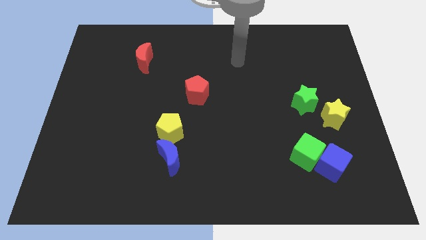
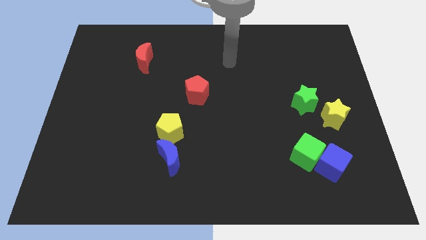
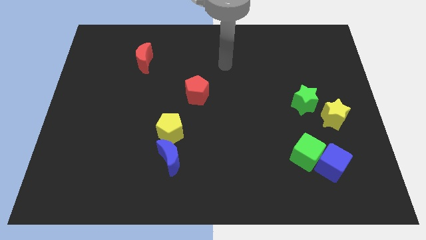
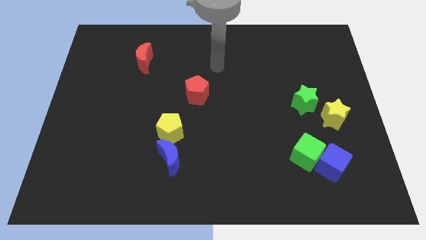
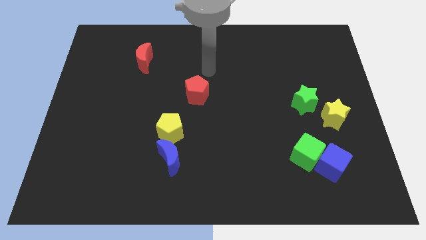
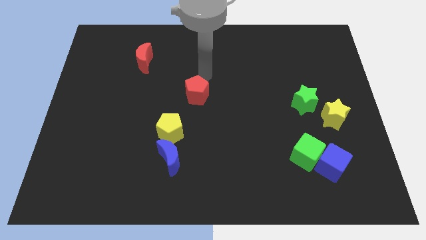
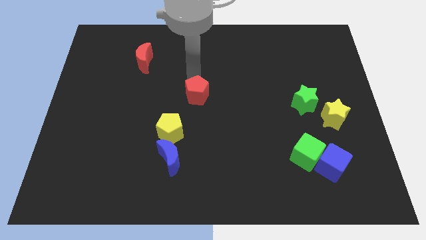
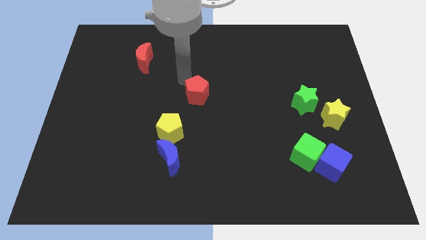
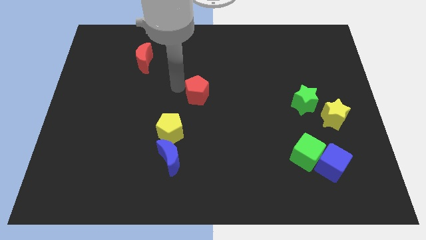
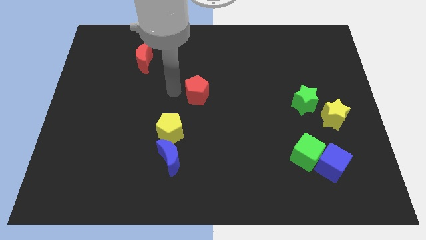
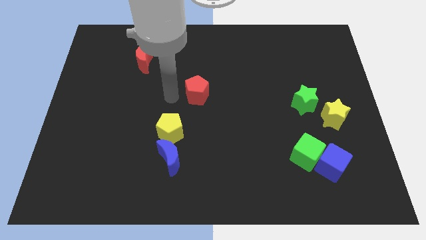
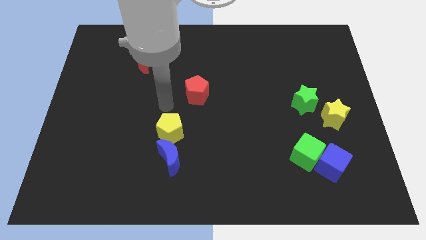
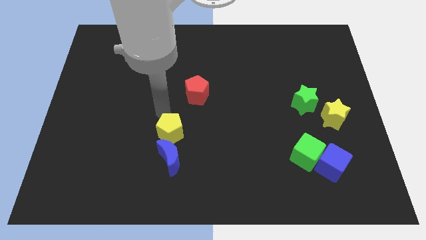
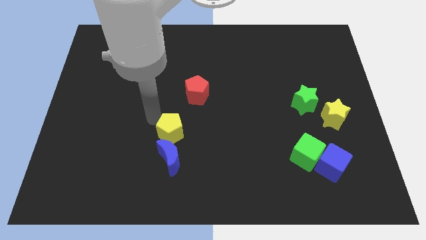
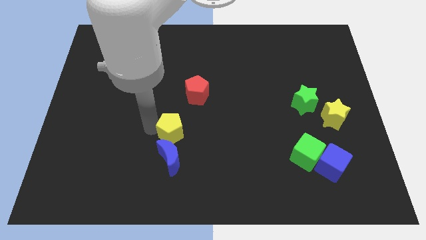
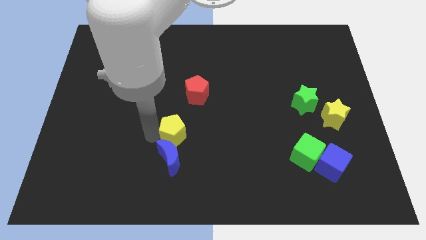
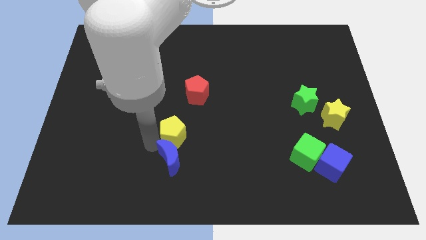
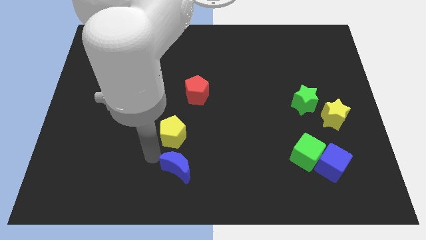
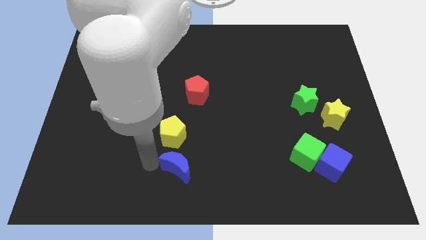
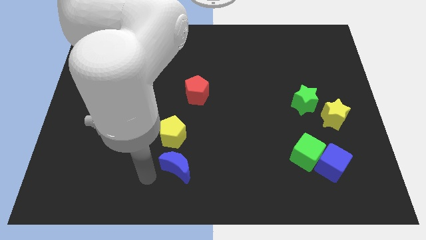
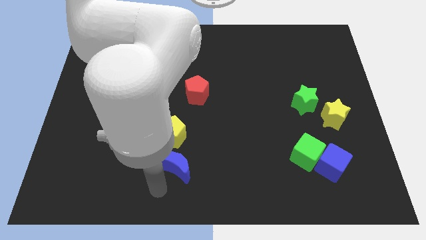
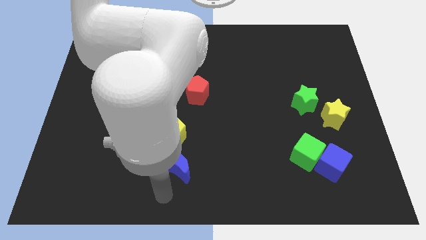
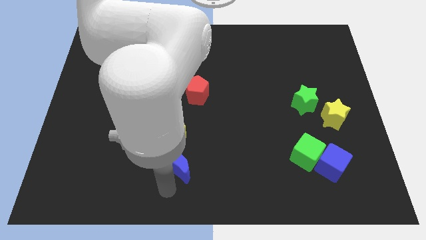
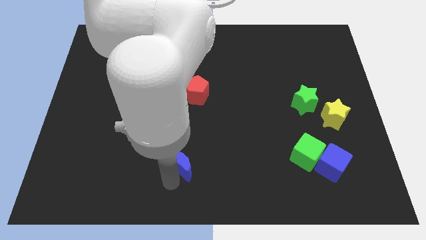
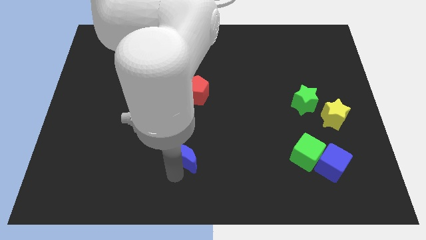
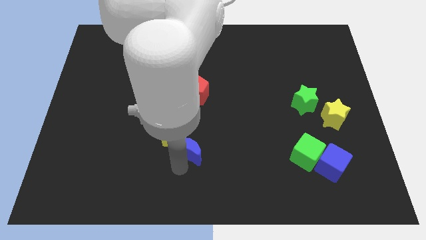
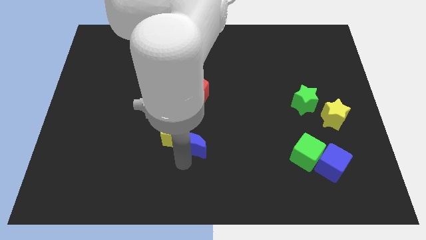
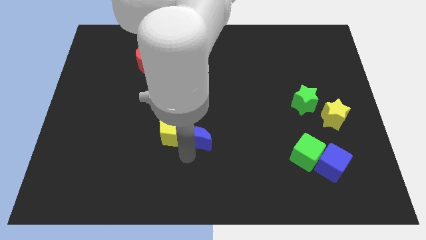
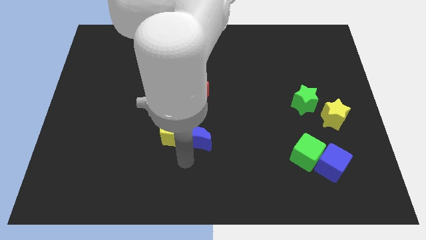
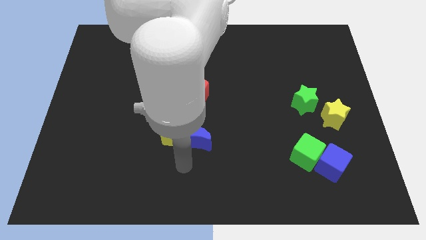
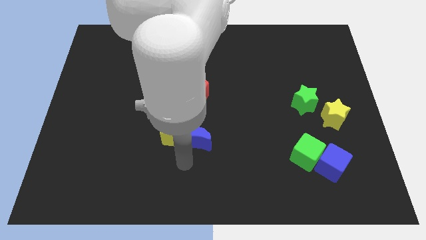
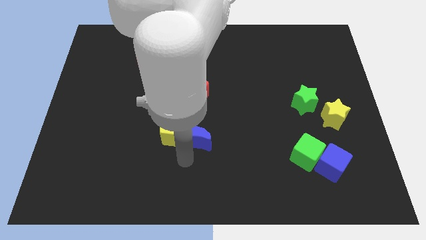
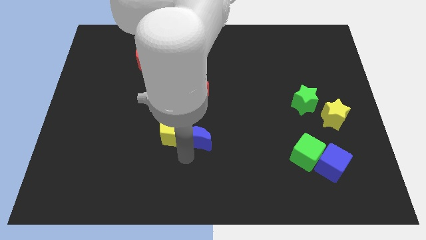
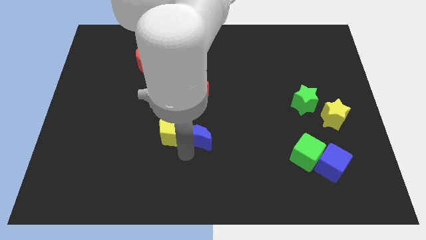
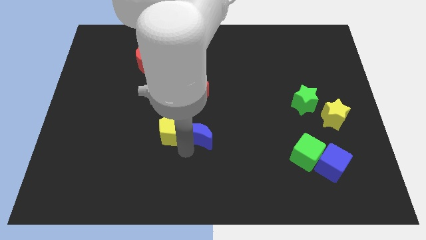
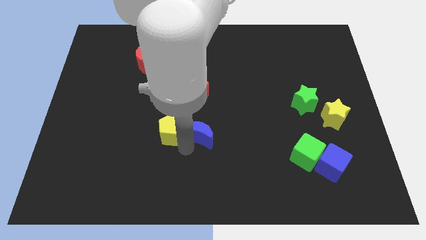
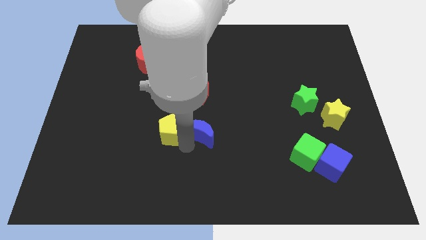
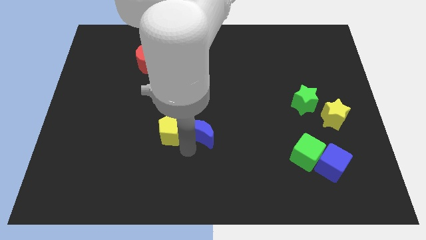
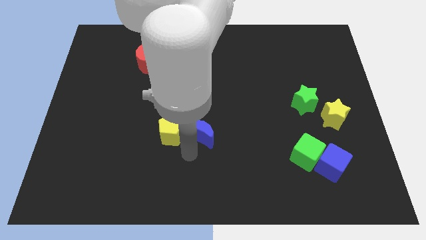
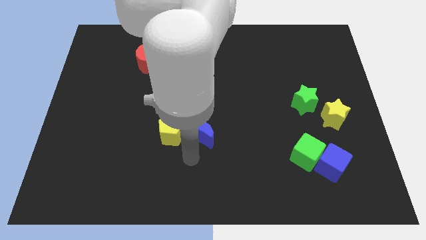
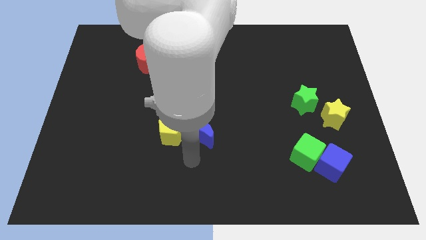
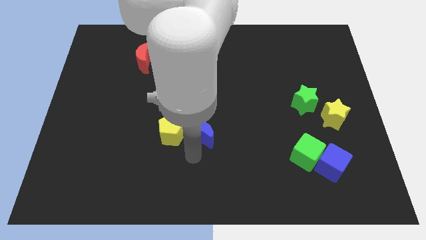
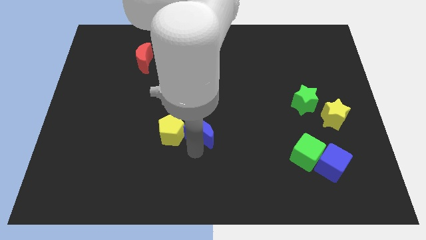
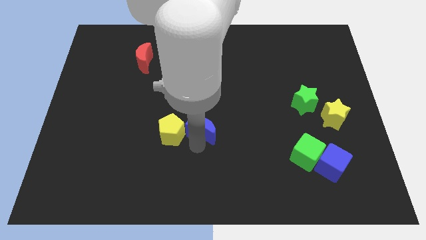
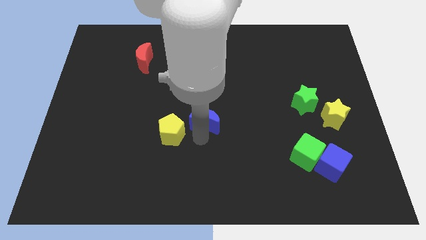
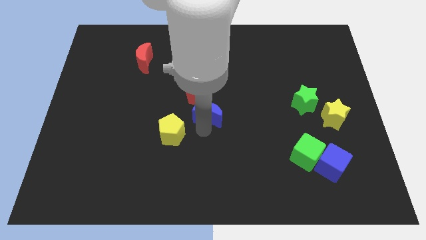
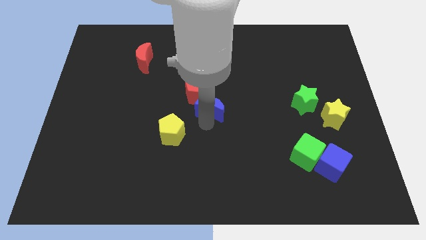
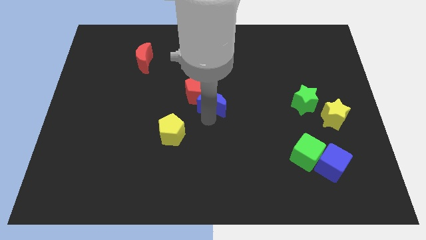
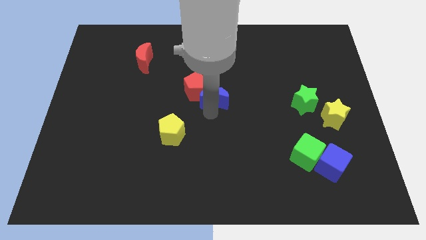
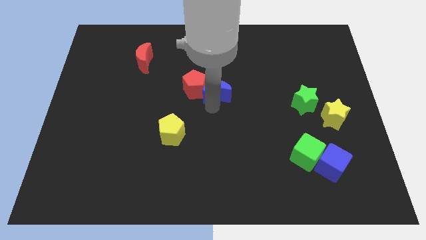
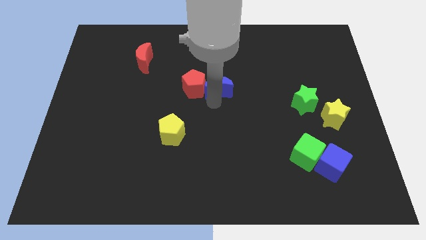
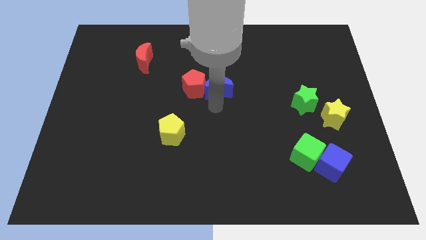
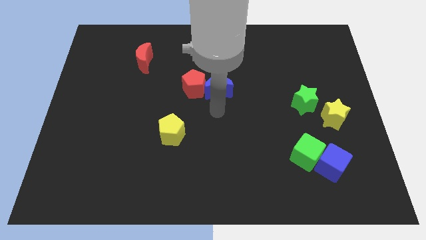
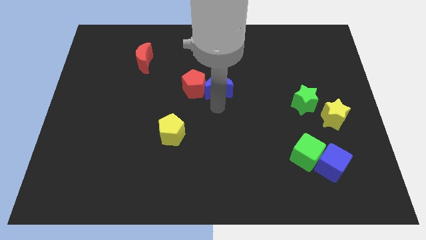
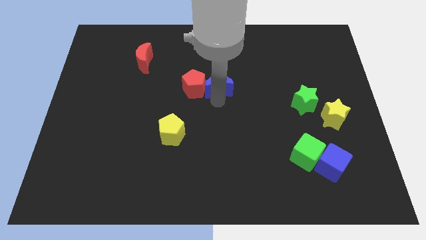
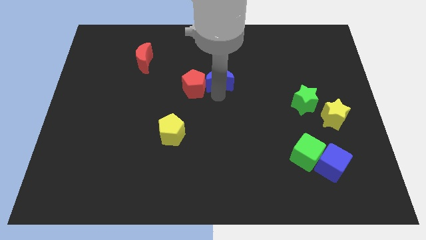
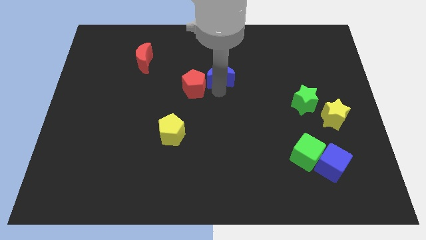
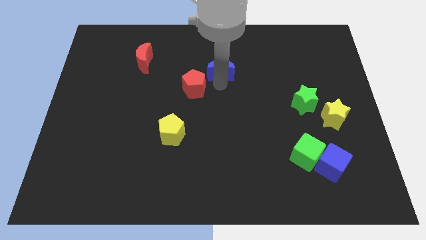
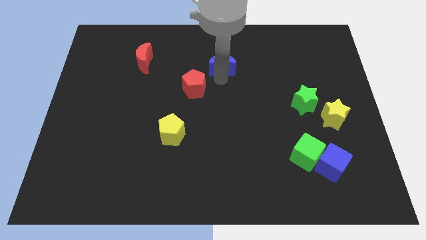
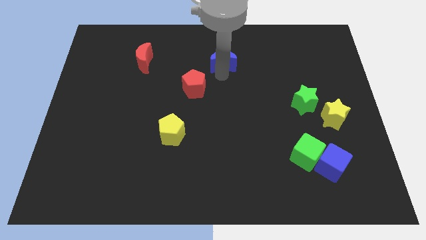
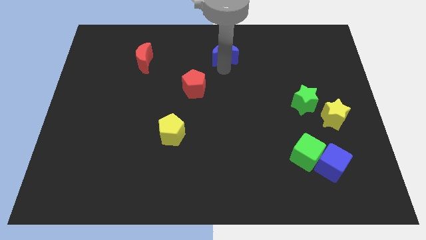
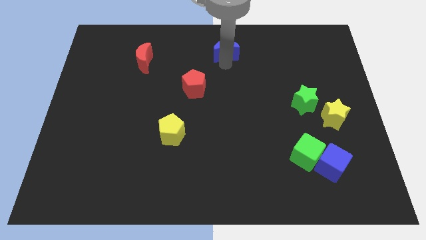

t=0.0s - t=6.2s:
put the blue moon to the top side
